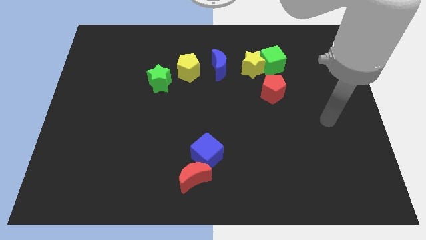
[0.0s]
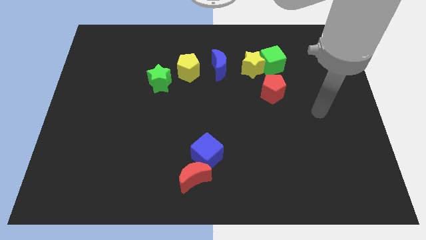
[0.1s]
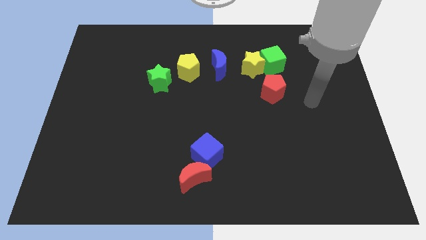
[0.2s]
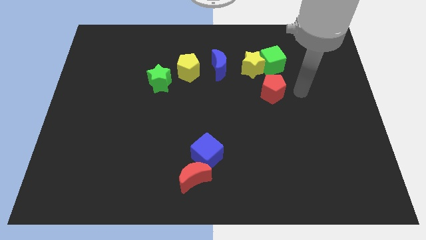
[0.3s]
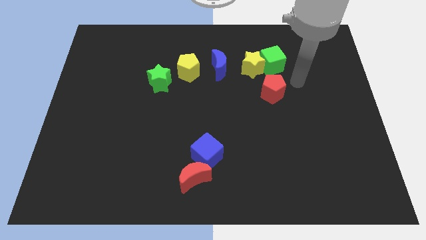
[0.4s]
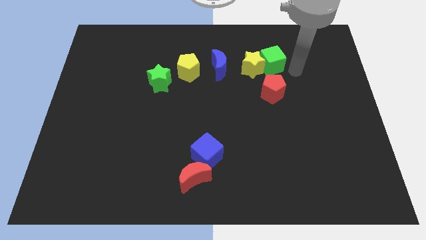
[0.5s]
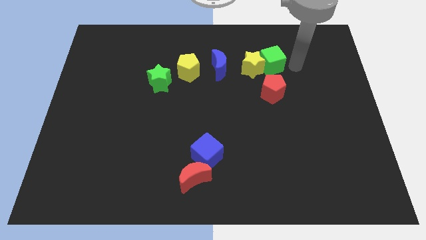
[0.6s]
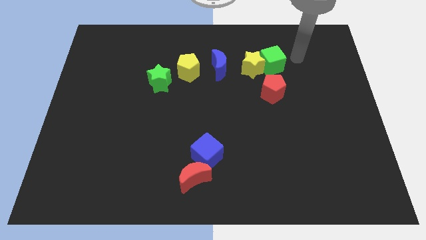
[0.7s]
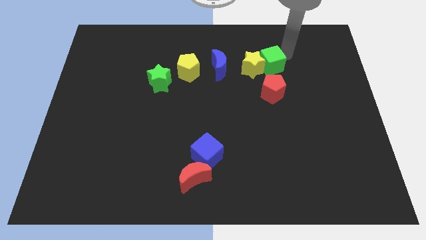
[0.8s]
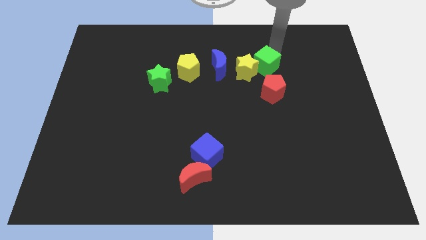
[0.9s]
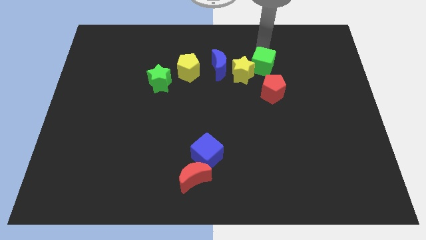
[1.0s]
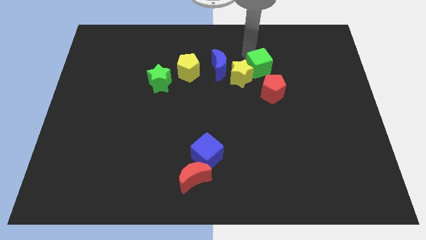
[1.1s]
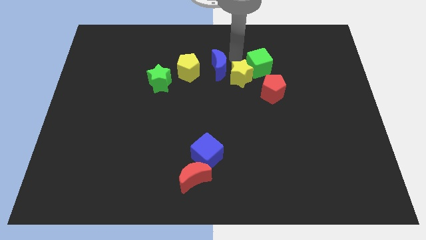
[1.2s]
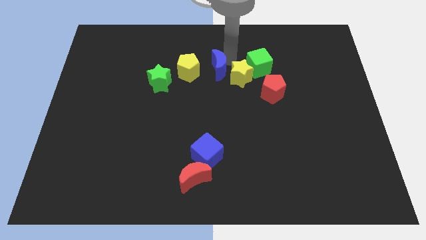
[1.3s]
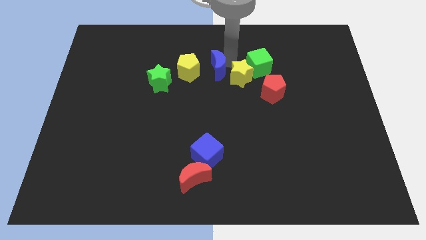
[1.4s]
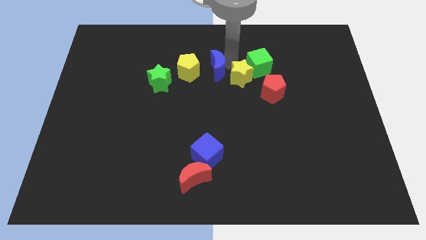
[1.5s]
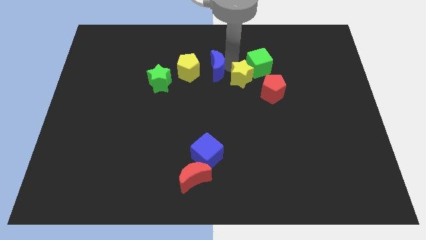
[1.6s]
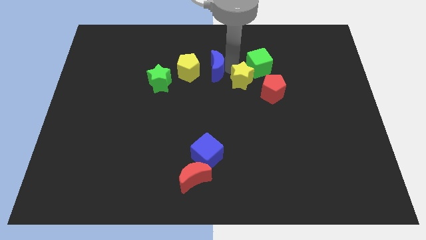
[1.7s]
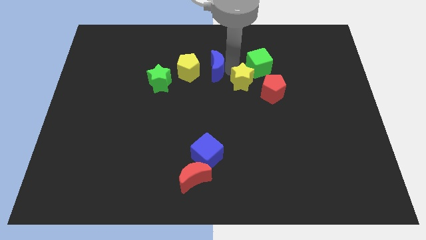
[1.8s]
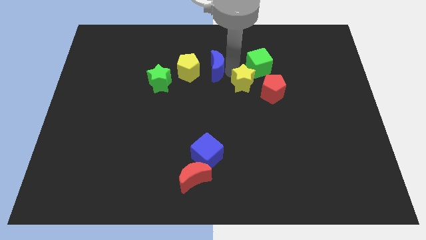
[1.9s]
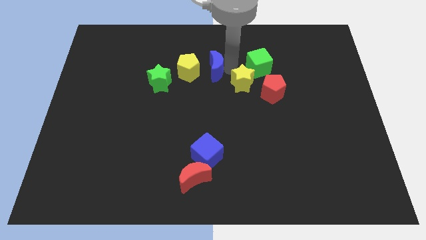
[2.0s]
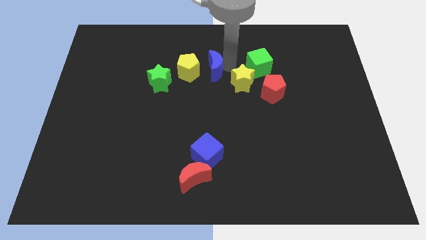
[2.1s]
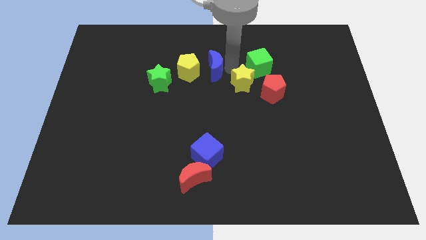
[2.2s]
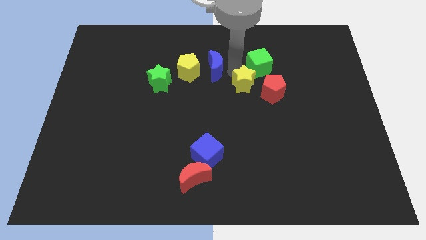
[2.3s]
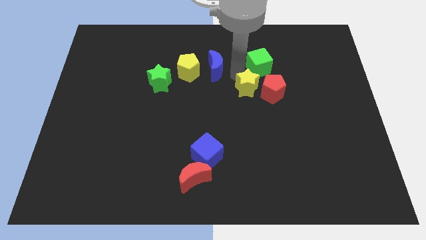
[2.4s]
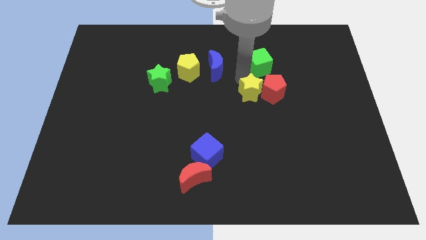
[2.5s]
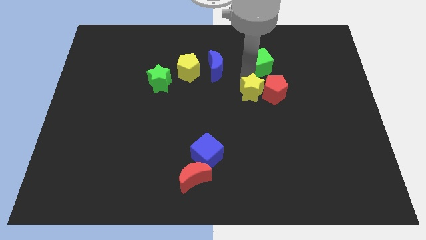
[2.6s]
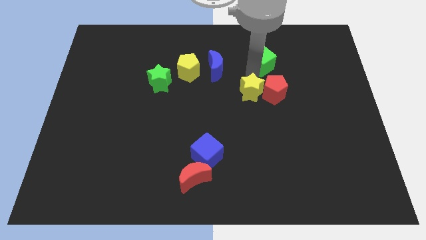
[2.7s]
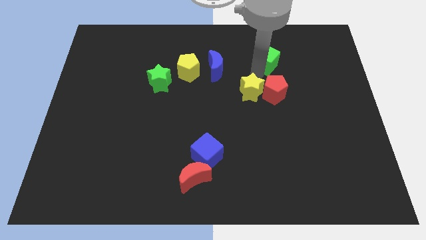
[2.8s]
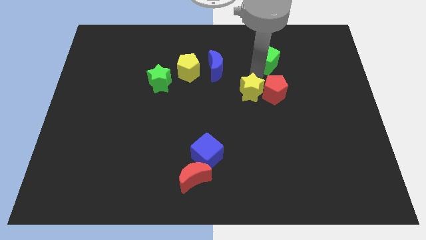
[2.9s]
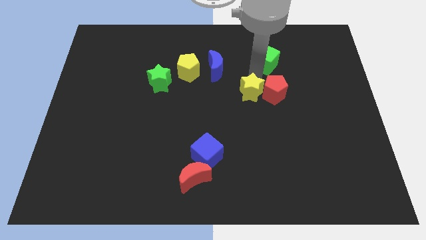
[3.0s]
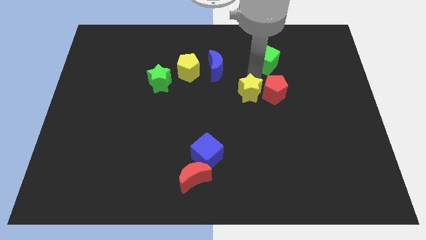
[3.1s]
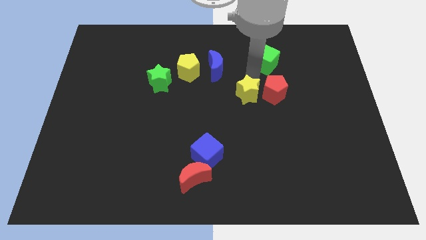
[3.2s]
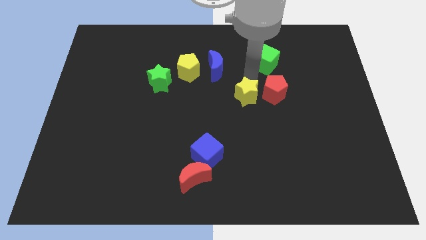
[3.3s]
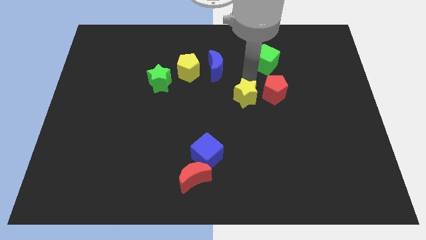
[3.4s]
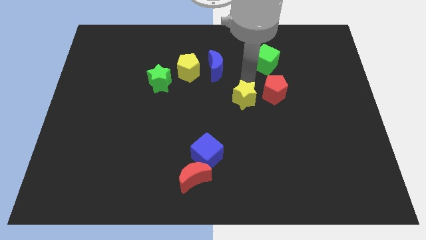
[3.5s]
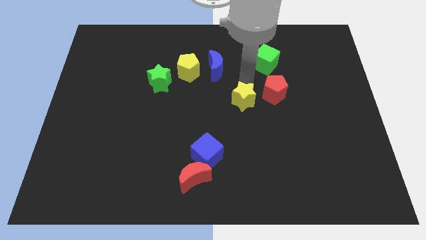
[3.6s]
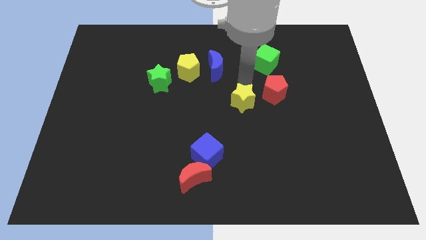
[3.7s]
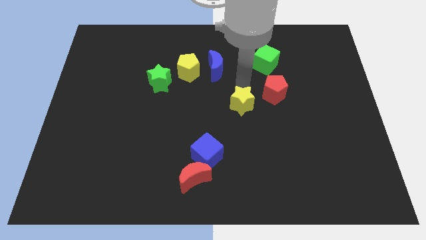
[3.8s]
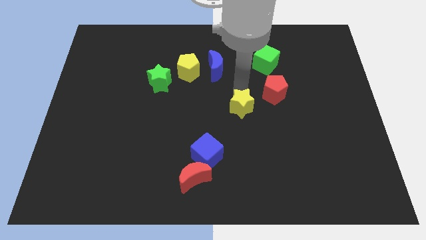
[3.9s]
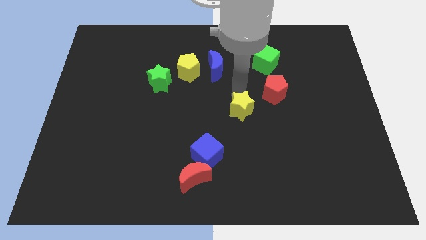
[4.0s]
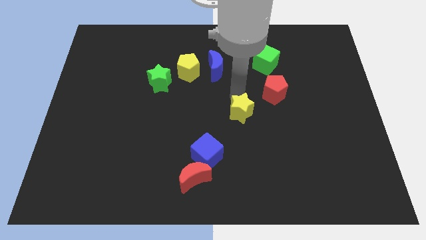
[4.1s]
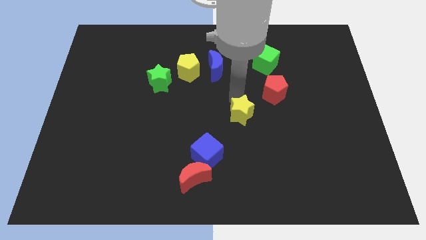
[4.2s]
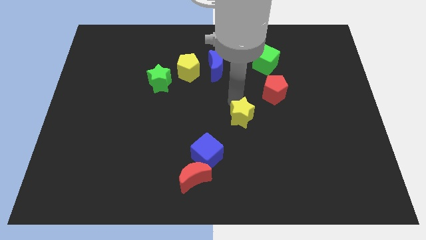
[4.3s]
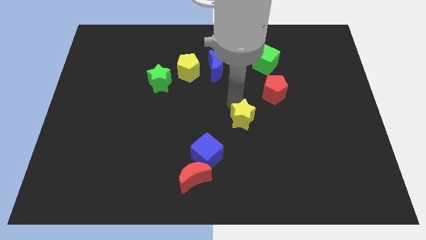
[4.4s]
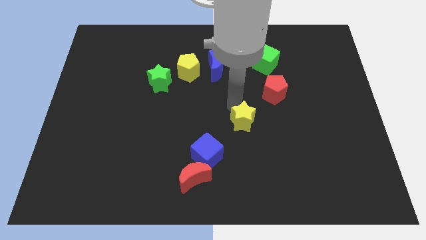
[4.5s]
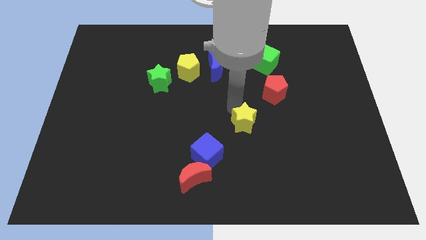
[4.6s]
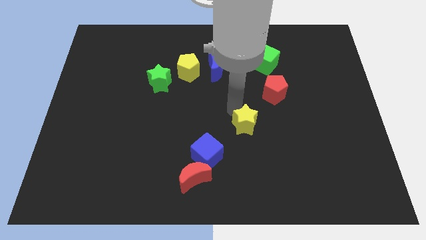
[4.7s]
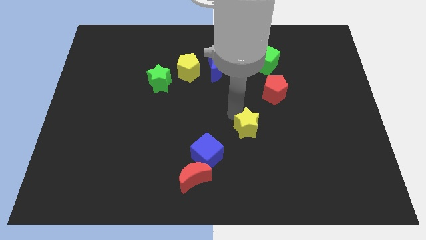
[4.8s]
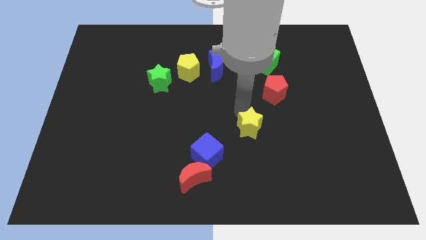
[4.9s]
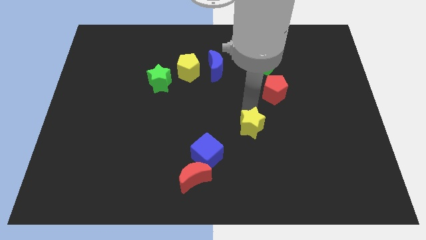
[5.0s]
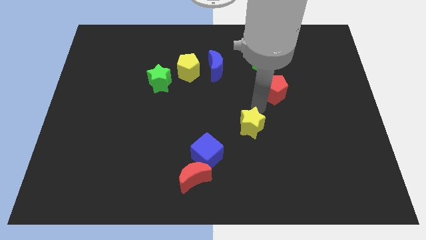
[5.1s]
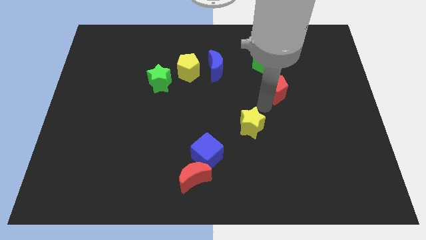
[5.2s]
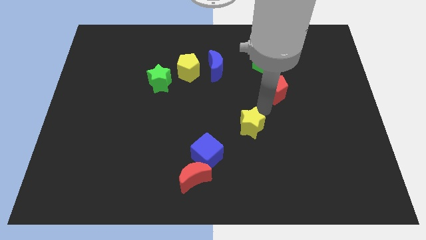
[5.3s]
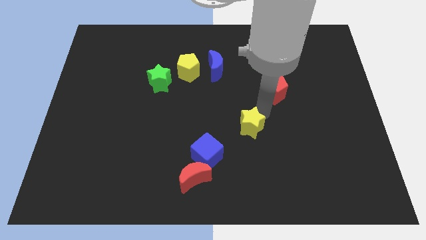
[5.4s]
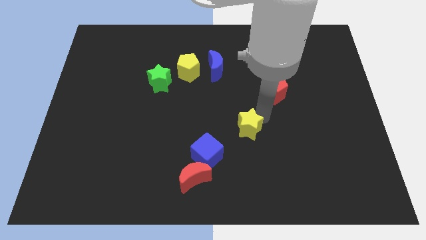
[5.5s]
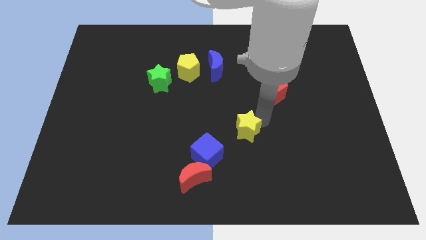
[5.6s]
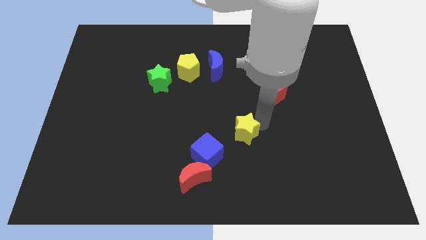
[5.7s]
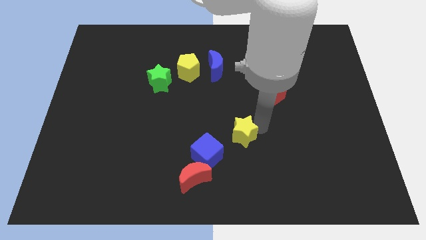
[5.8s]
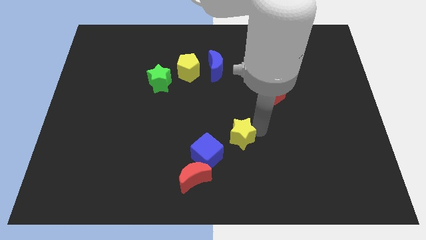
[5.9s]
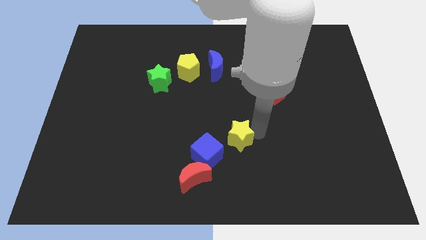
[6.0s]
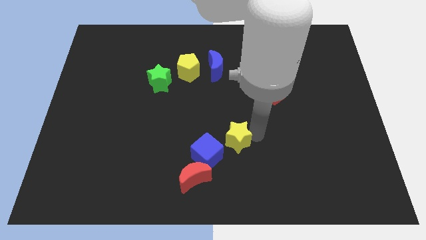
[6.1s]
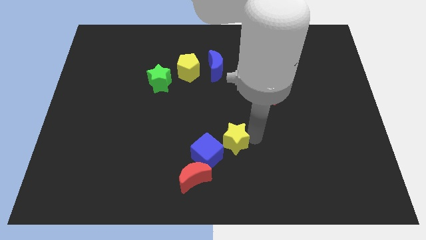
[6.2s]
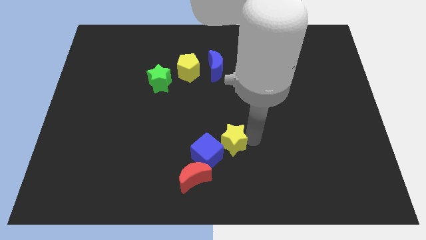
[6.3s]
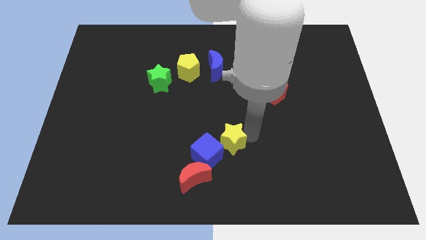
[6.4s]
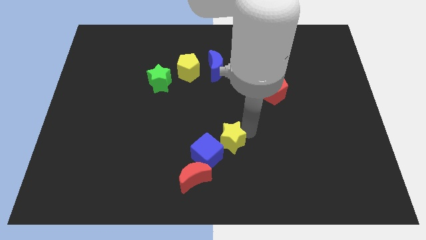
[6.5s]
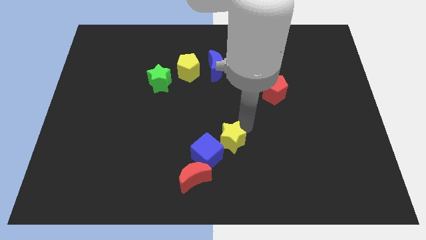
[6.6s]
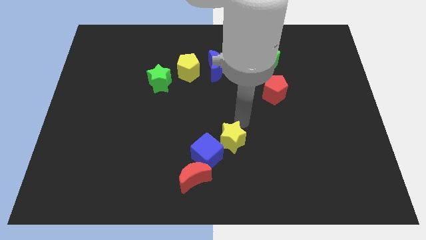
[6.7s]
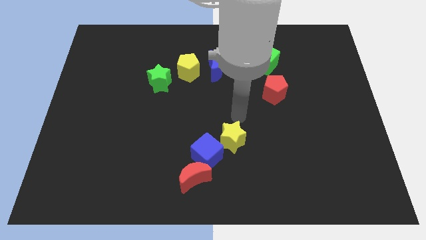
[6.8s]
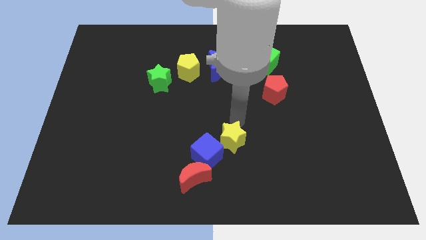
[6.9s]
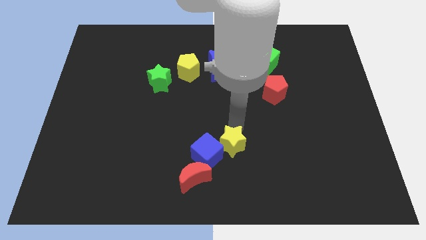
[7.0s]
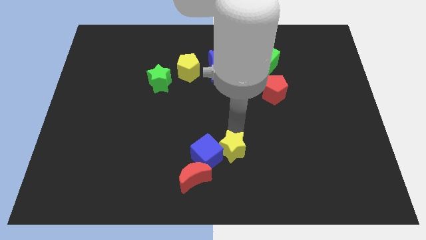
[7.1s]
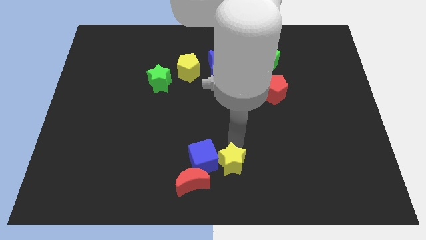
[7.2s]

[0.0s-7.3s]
put the yellow star to the bottom

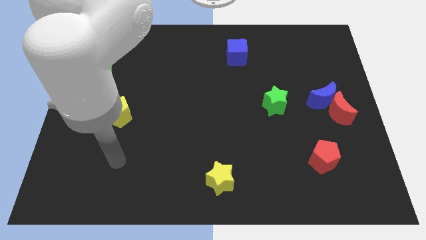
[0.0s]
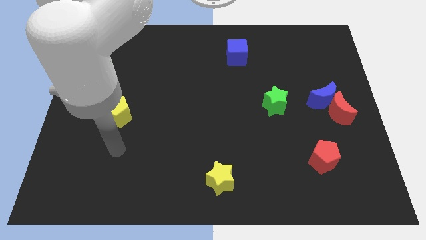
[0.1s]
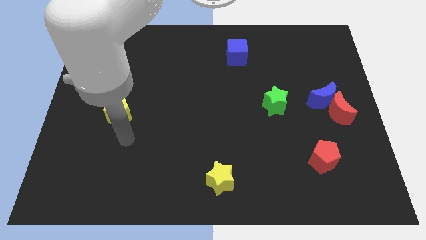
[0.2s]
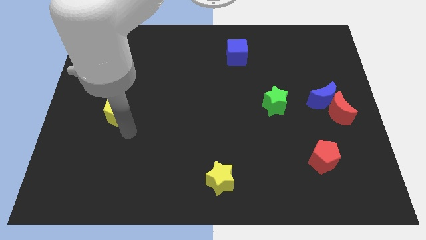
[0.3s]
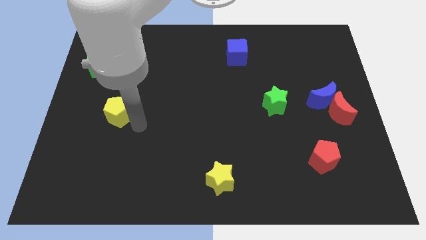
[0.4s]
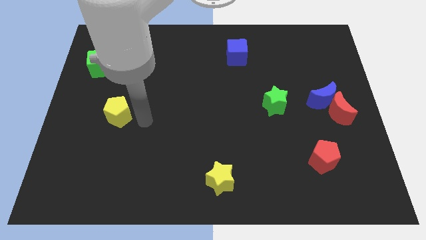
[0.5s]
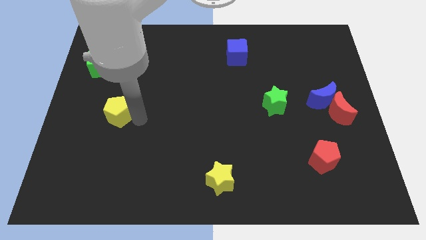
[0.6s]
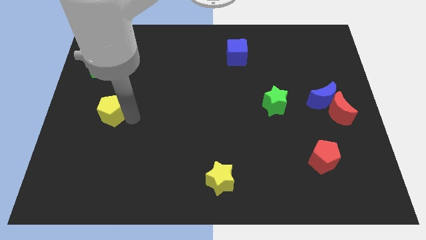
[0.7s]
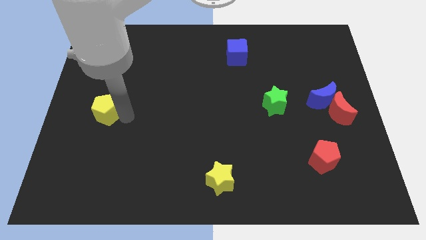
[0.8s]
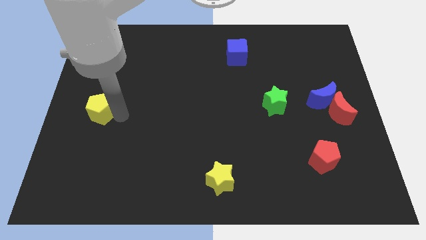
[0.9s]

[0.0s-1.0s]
put the yellow pentagon to the left side of the board
